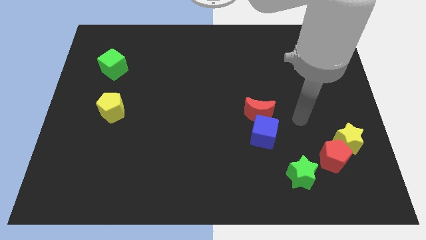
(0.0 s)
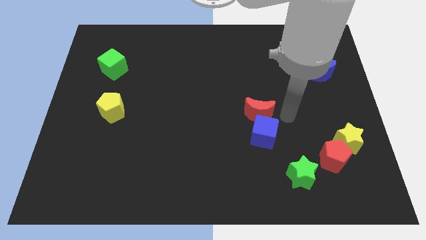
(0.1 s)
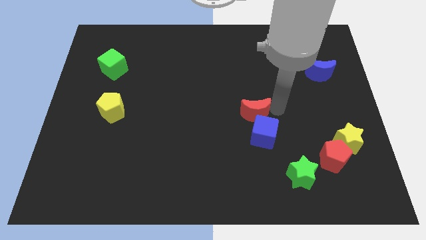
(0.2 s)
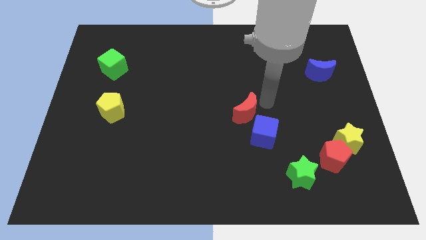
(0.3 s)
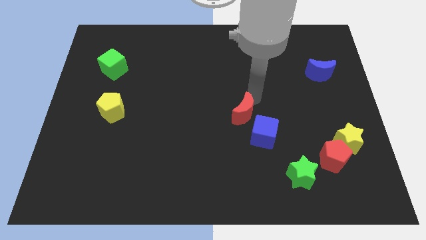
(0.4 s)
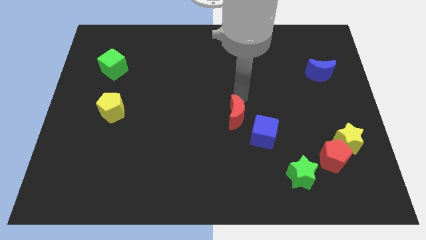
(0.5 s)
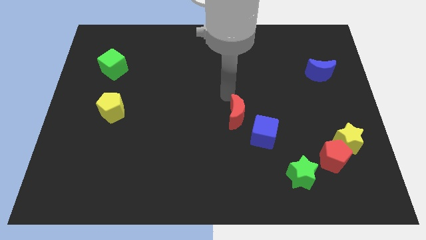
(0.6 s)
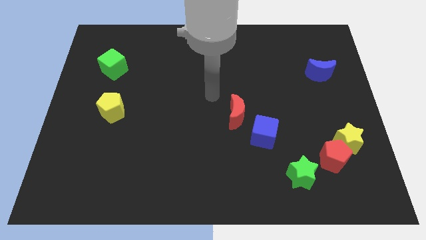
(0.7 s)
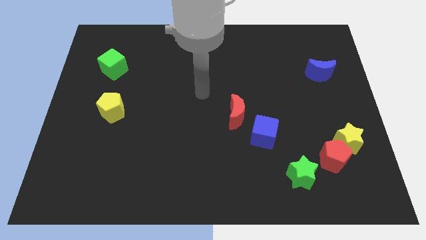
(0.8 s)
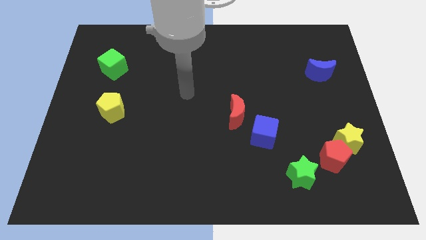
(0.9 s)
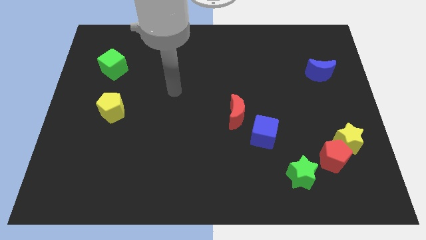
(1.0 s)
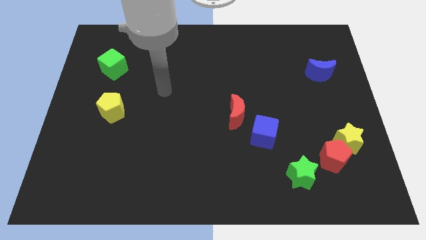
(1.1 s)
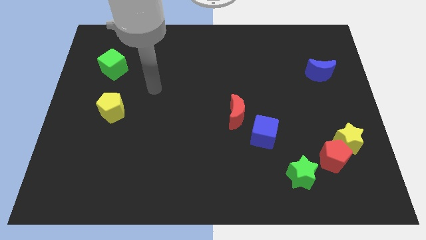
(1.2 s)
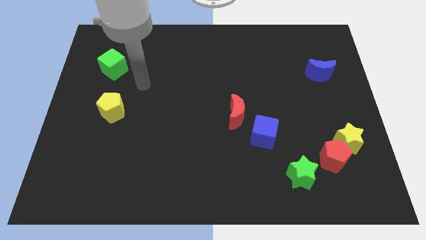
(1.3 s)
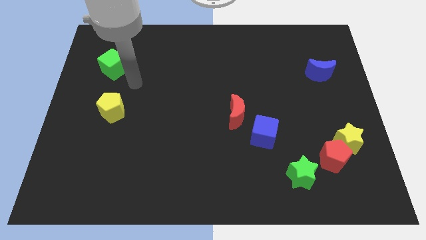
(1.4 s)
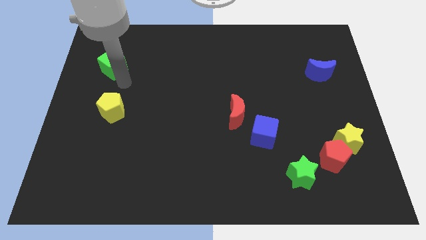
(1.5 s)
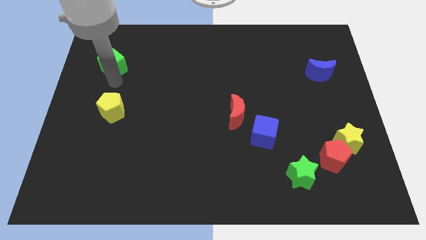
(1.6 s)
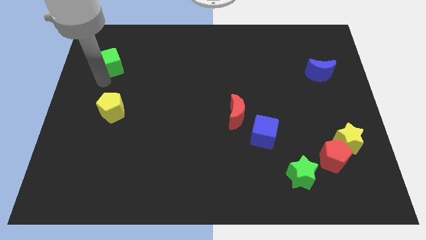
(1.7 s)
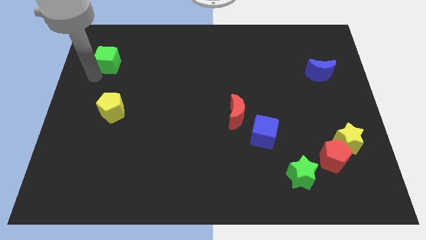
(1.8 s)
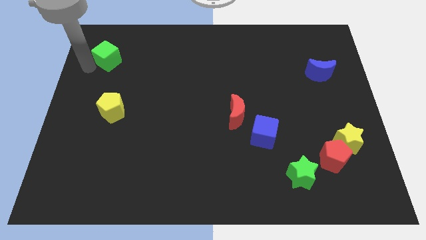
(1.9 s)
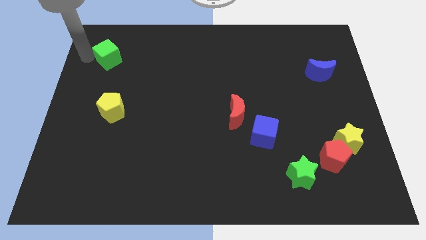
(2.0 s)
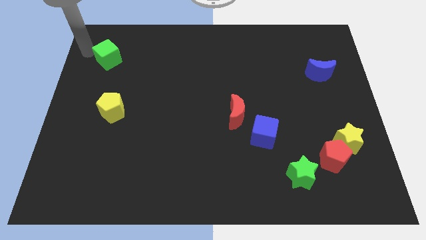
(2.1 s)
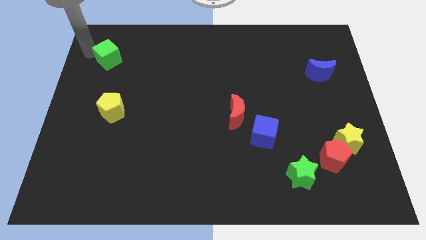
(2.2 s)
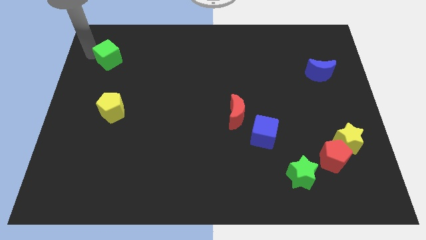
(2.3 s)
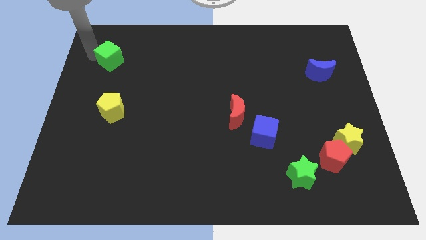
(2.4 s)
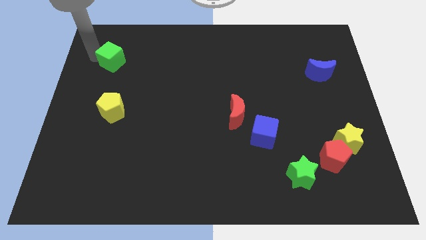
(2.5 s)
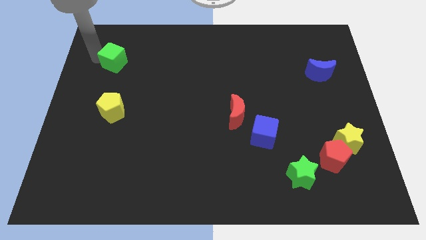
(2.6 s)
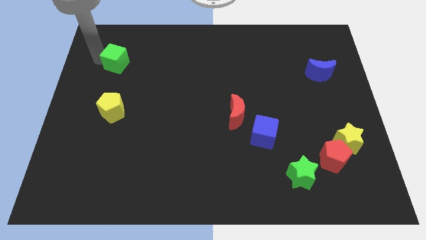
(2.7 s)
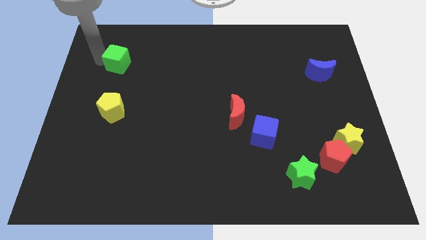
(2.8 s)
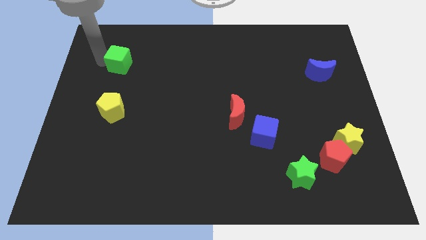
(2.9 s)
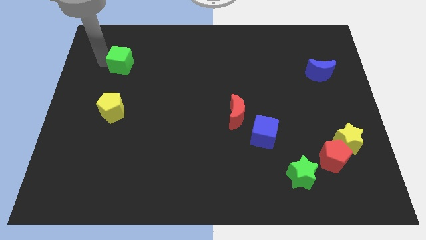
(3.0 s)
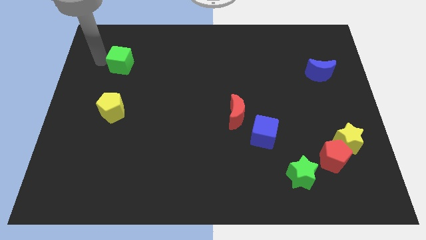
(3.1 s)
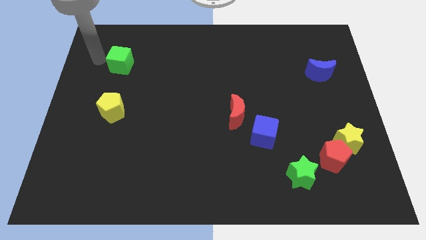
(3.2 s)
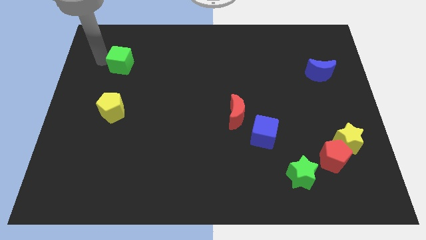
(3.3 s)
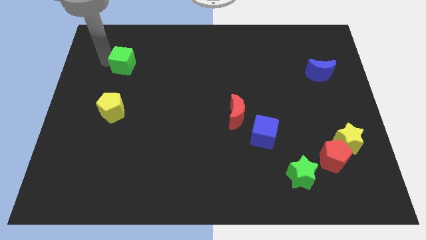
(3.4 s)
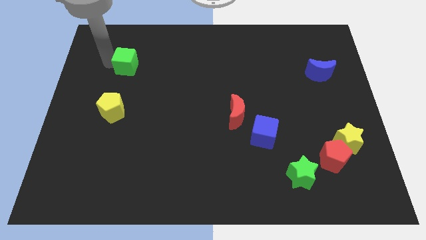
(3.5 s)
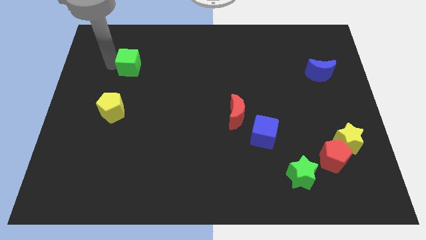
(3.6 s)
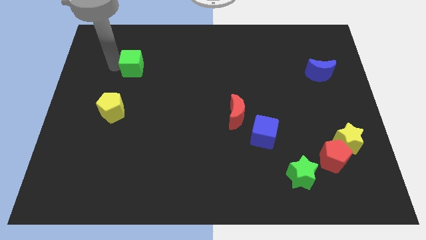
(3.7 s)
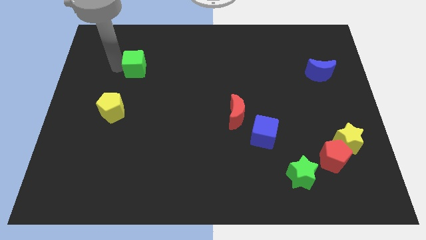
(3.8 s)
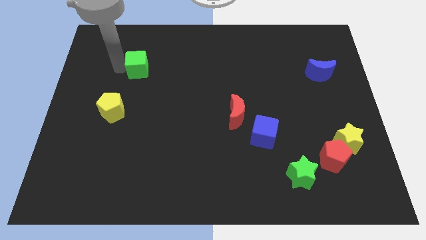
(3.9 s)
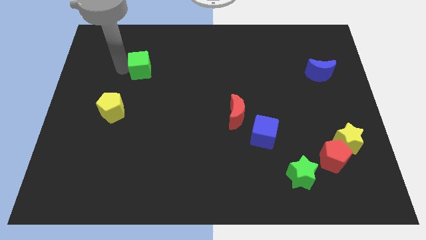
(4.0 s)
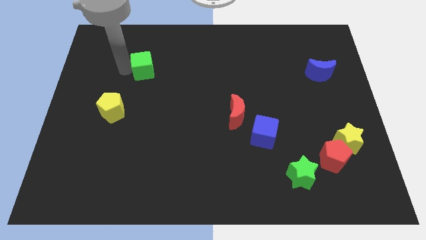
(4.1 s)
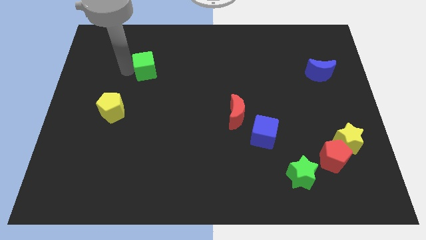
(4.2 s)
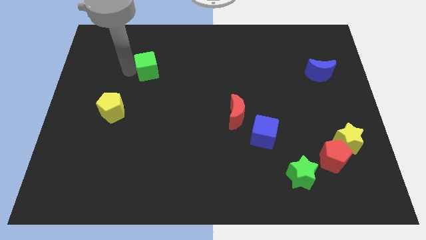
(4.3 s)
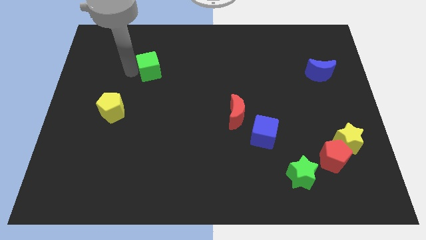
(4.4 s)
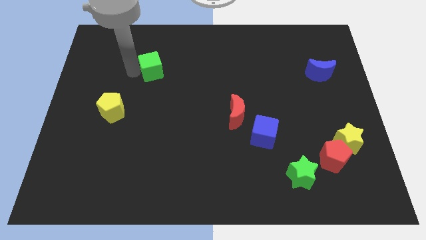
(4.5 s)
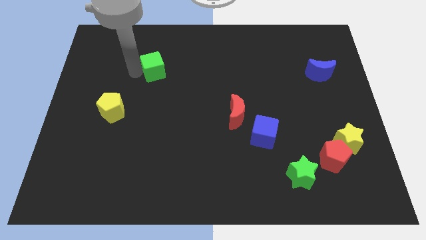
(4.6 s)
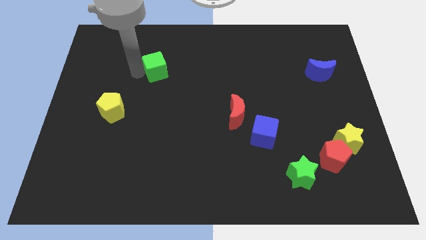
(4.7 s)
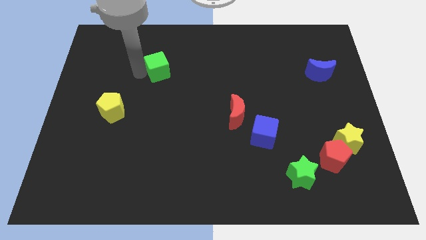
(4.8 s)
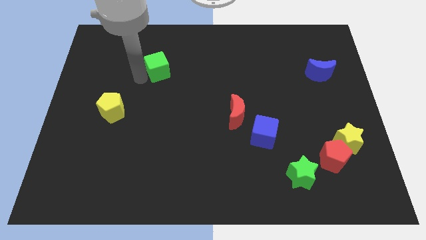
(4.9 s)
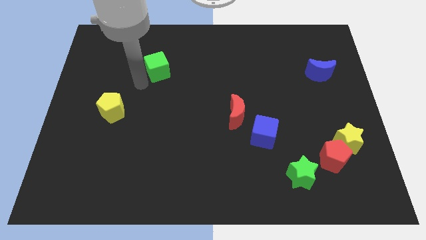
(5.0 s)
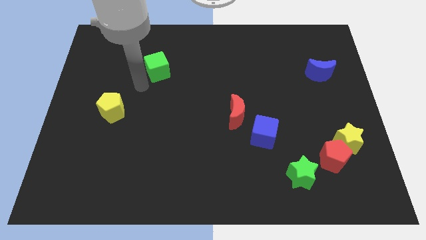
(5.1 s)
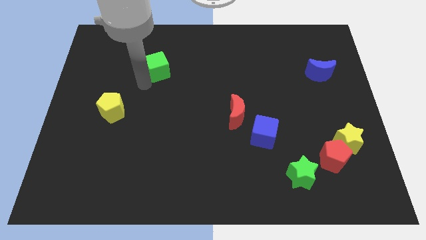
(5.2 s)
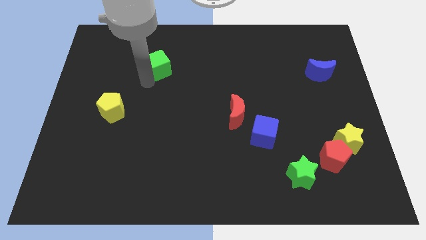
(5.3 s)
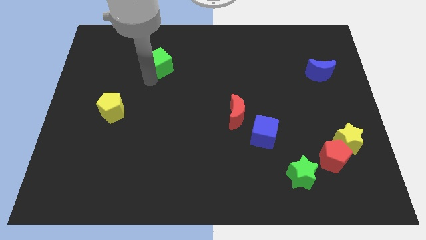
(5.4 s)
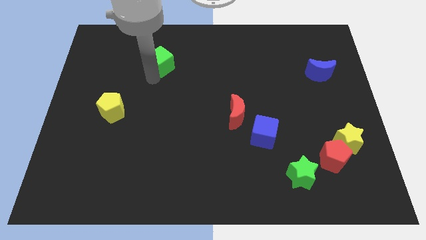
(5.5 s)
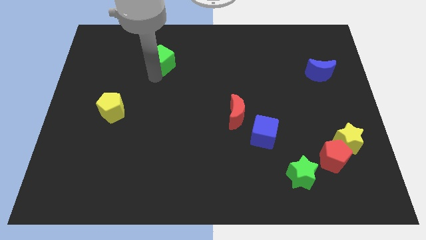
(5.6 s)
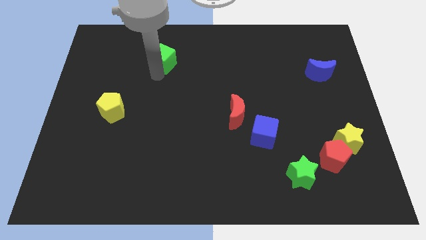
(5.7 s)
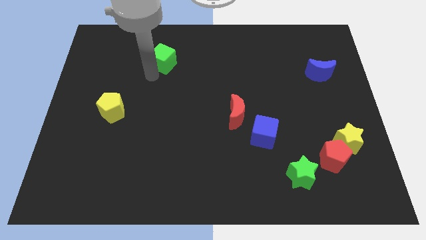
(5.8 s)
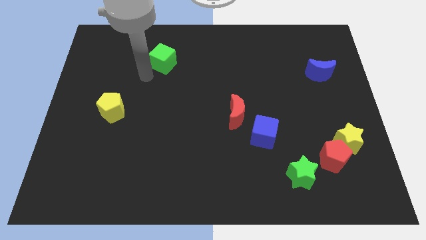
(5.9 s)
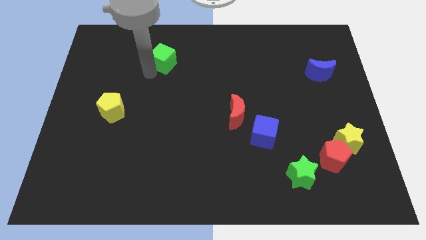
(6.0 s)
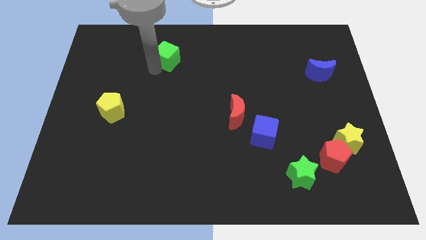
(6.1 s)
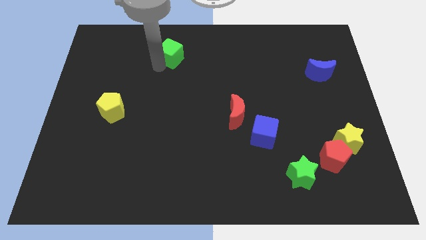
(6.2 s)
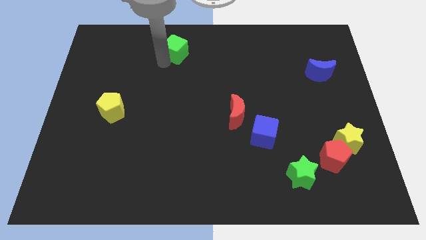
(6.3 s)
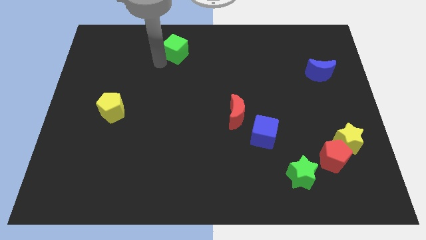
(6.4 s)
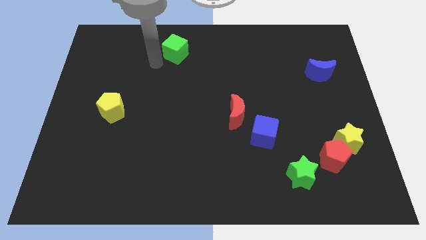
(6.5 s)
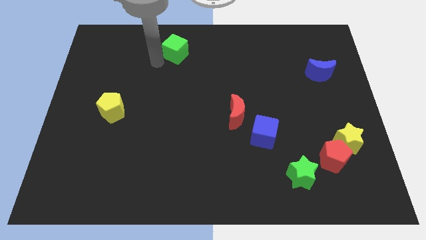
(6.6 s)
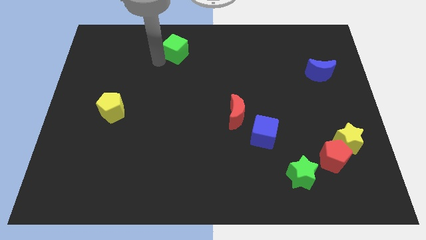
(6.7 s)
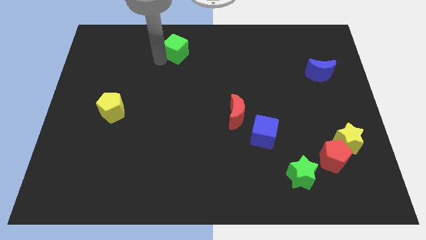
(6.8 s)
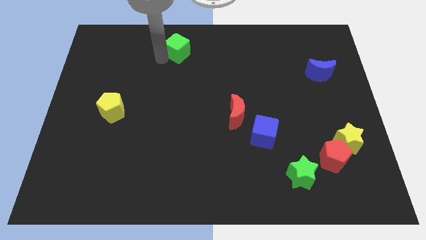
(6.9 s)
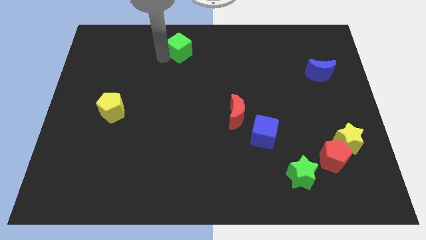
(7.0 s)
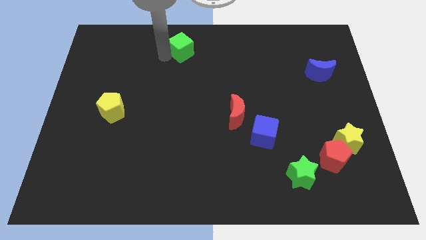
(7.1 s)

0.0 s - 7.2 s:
slide the green cube to the top

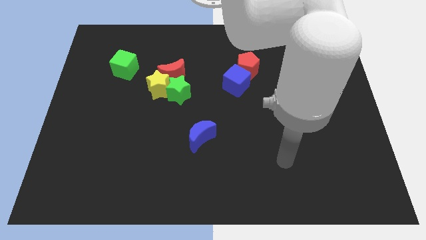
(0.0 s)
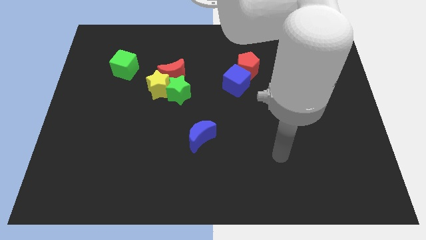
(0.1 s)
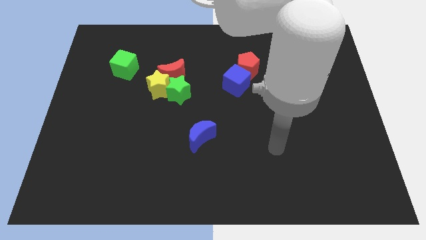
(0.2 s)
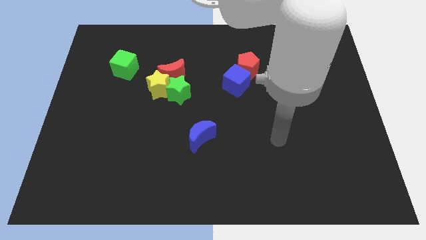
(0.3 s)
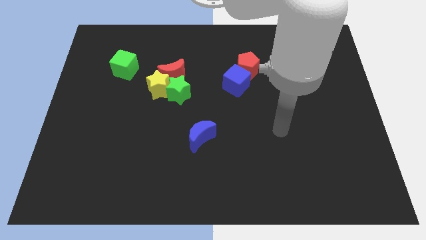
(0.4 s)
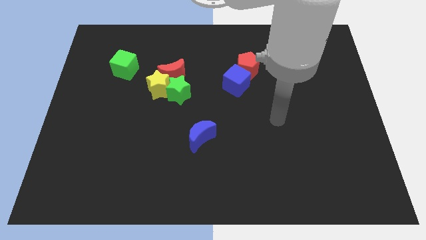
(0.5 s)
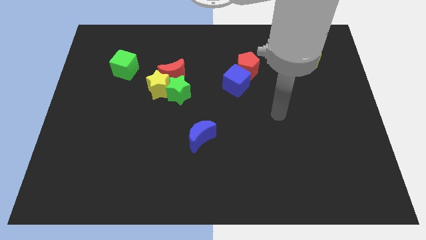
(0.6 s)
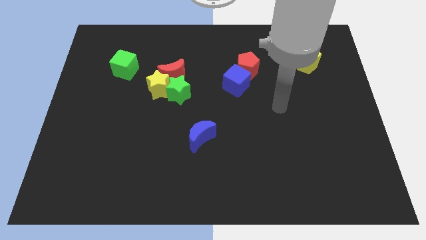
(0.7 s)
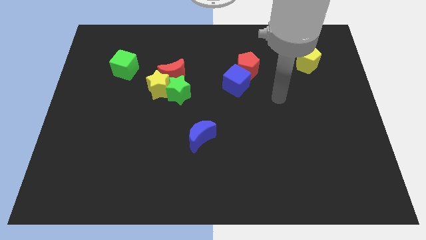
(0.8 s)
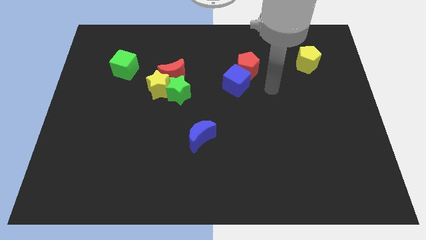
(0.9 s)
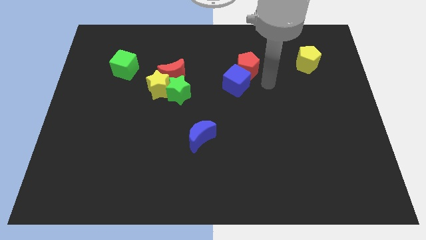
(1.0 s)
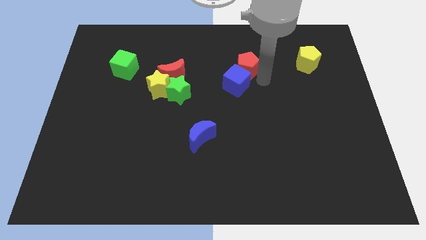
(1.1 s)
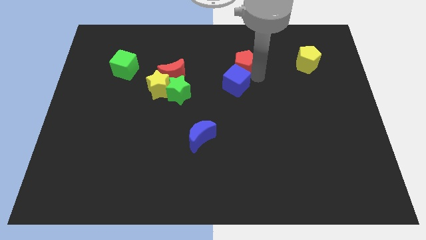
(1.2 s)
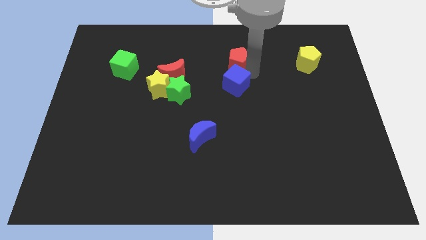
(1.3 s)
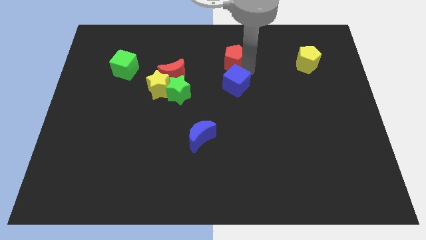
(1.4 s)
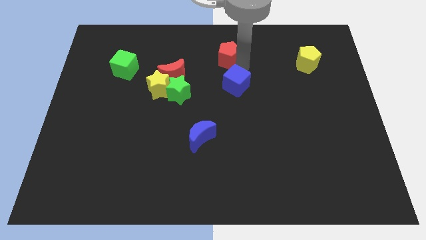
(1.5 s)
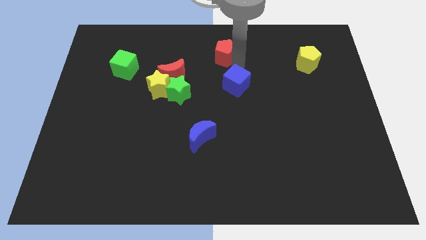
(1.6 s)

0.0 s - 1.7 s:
push the red pentagon to the top side
